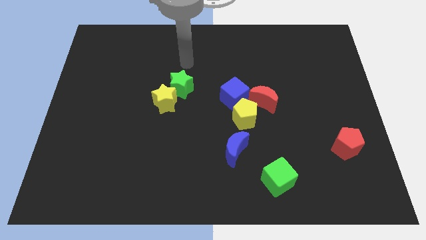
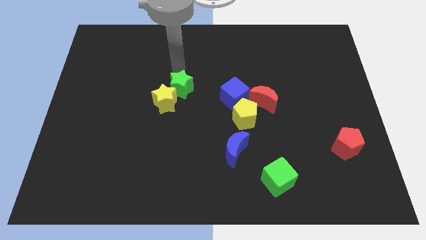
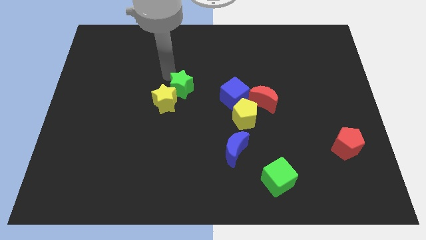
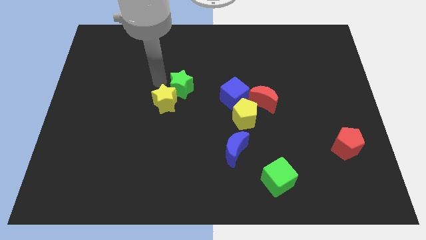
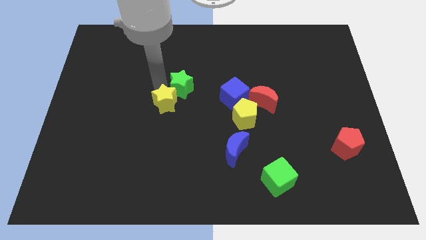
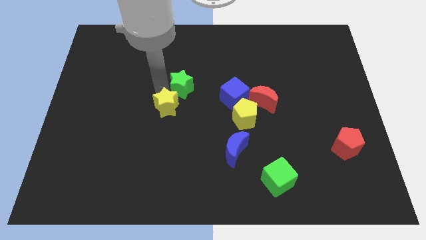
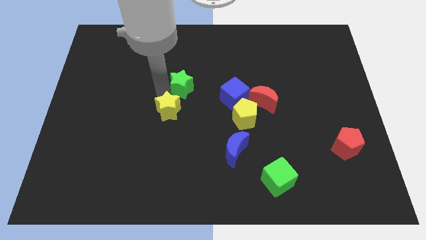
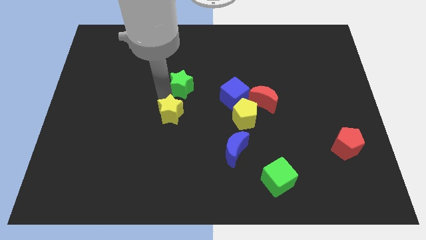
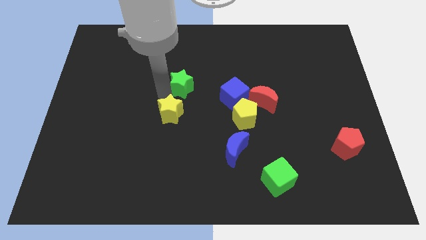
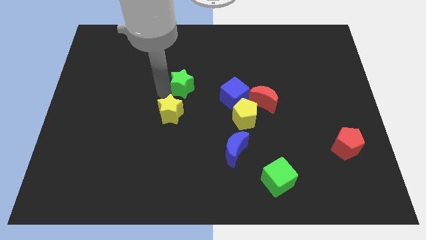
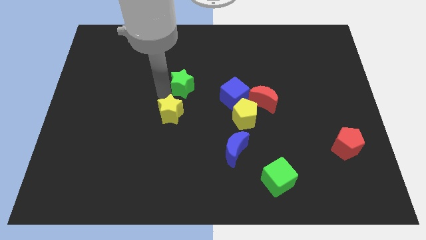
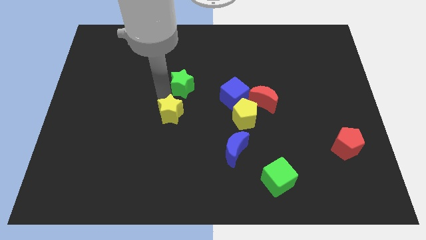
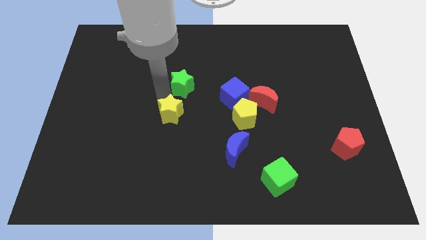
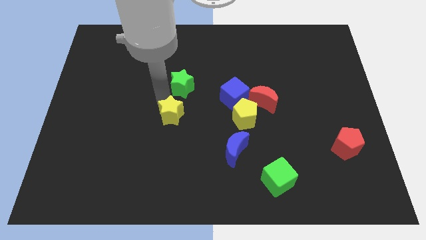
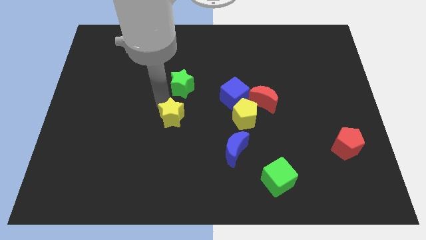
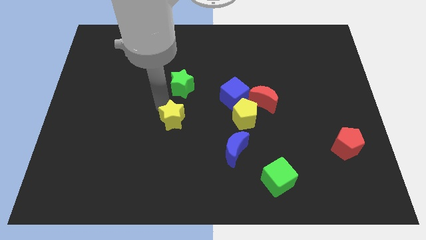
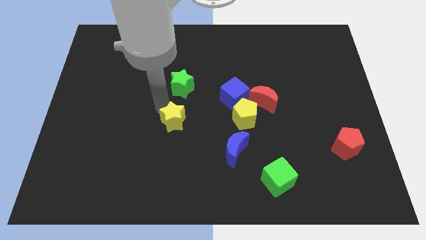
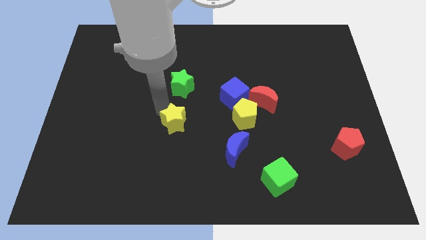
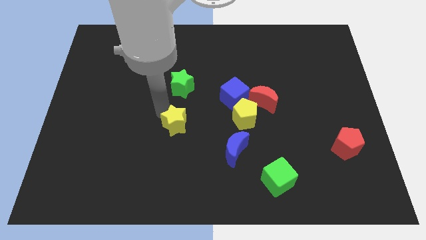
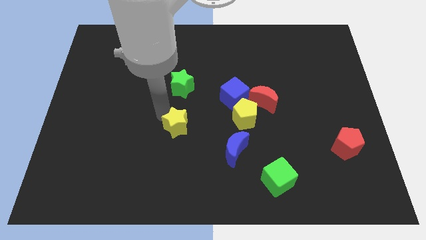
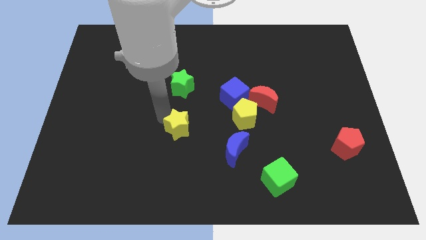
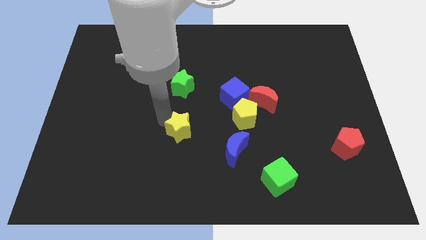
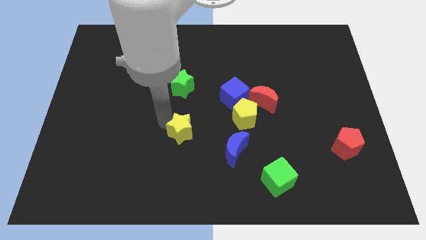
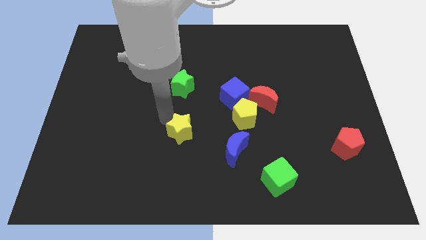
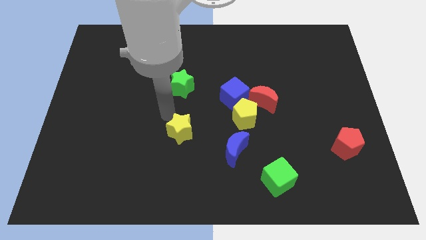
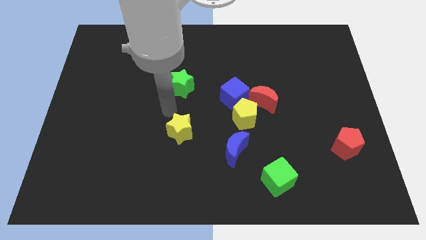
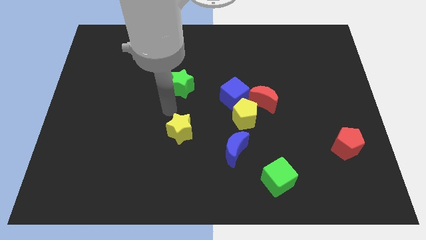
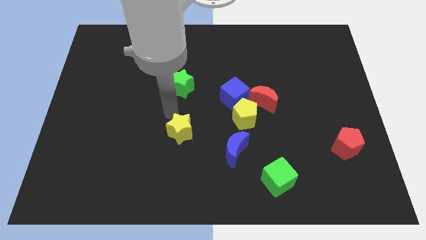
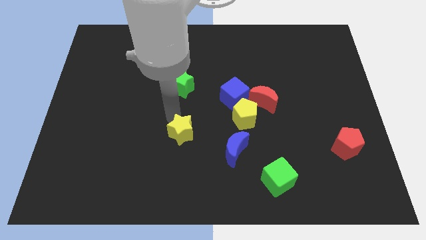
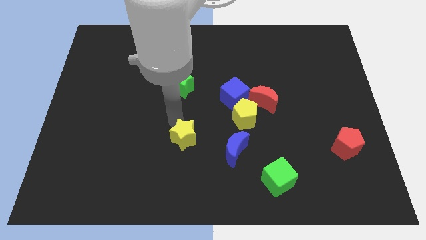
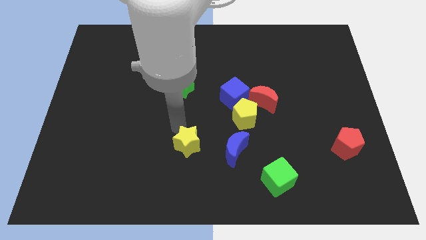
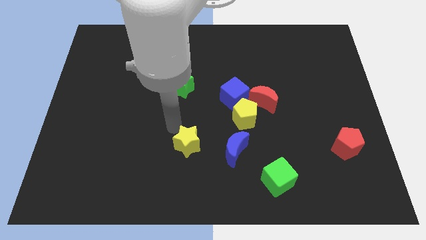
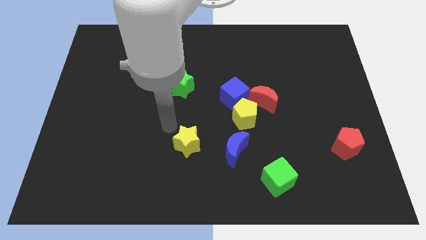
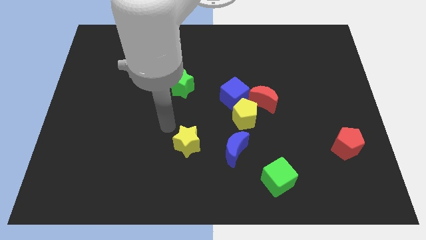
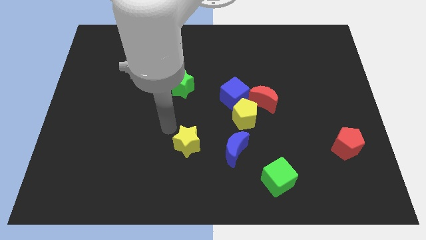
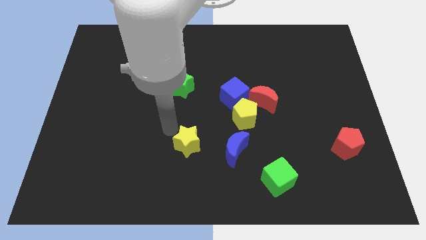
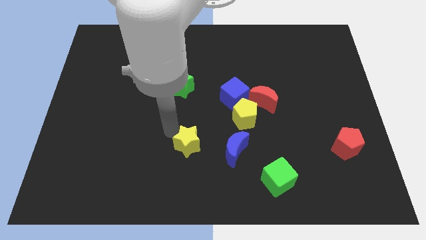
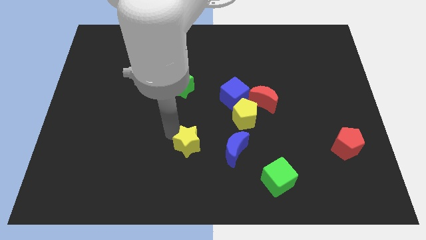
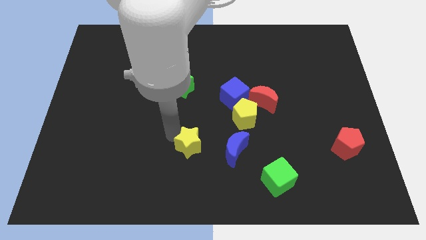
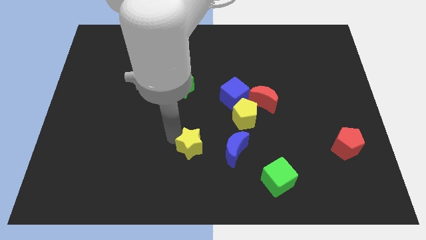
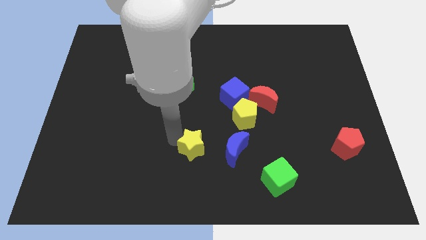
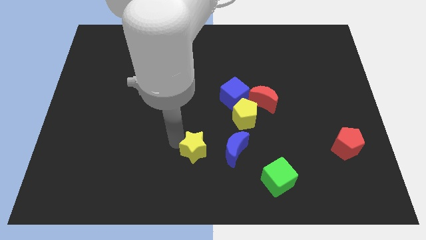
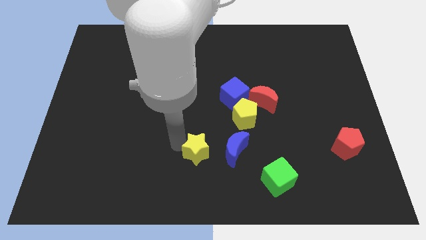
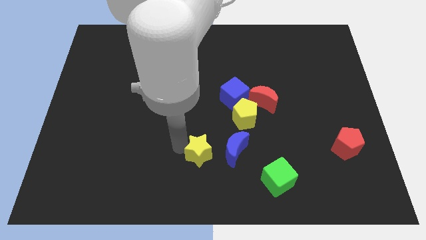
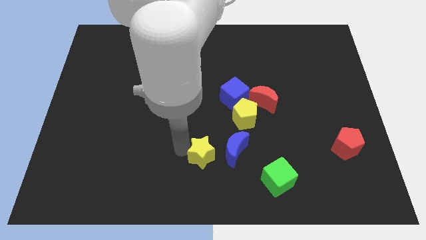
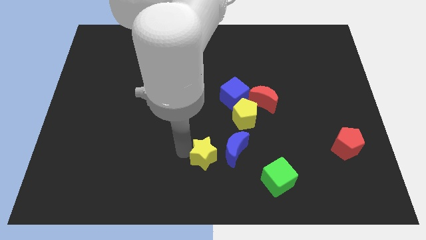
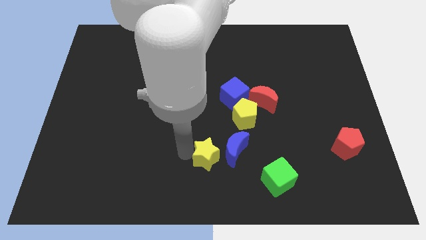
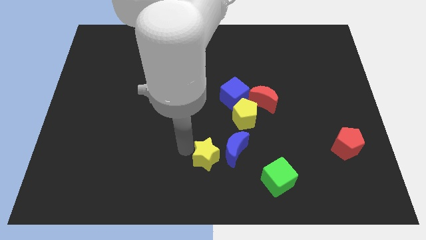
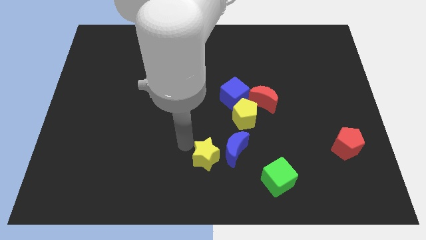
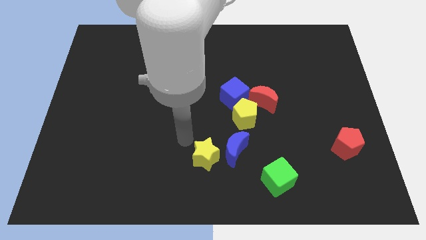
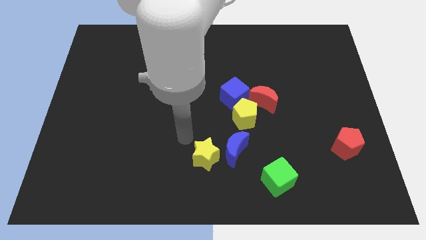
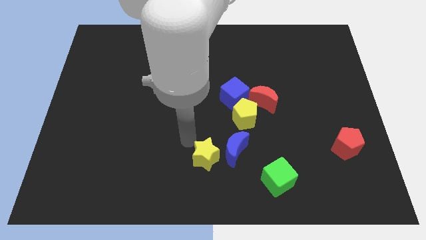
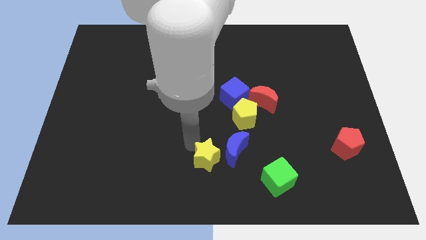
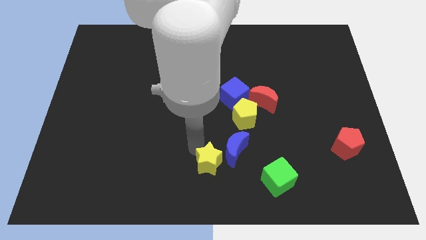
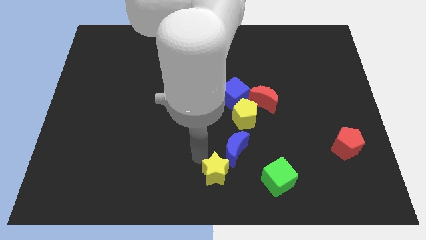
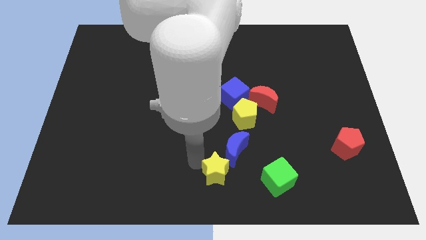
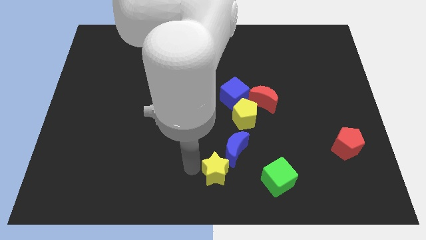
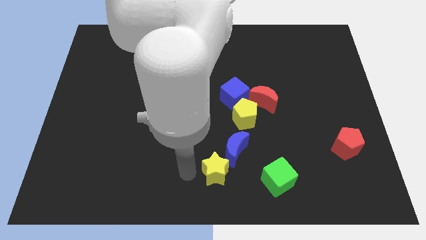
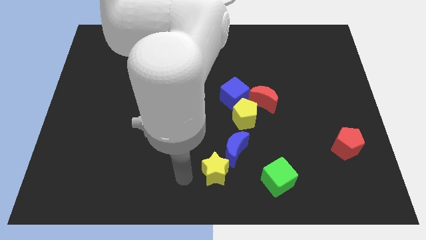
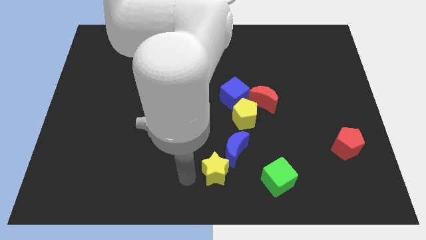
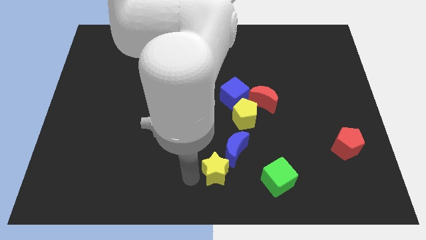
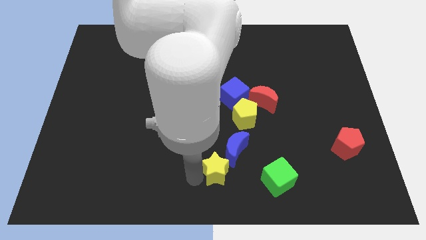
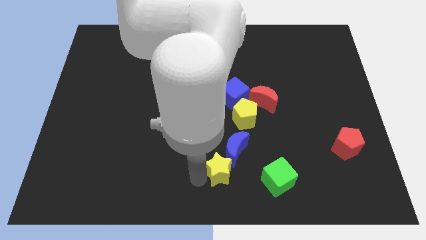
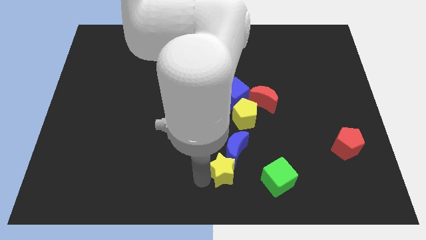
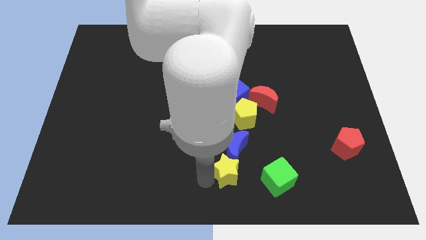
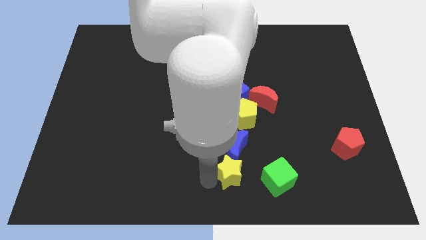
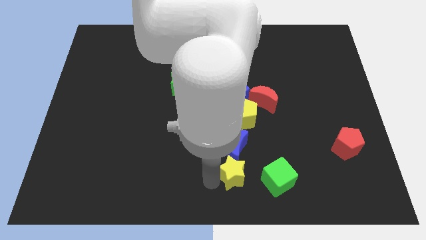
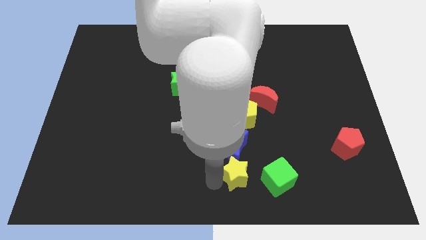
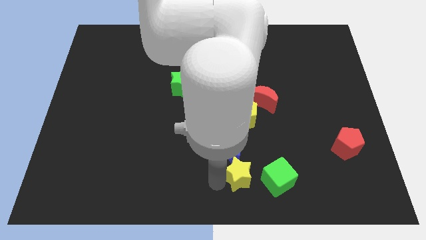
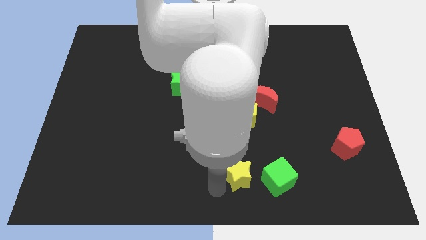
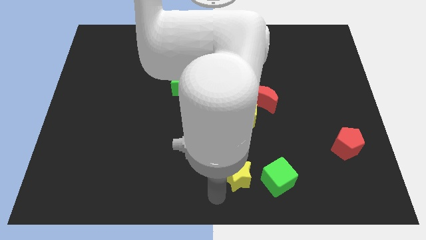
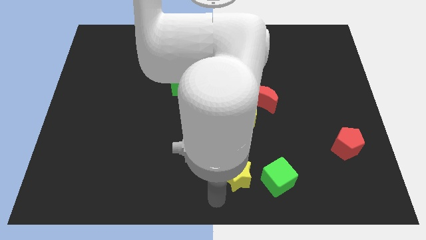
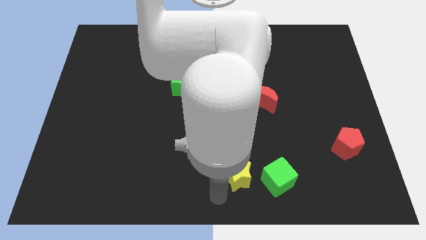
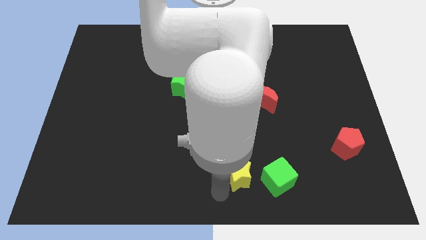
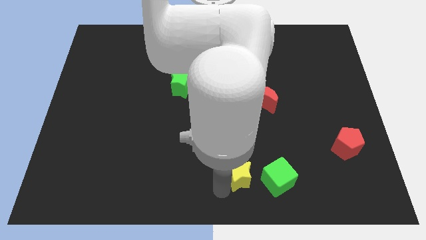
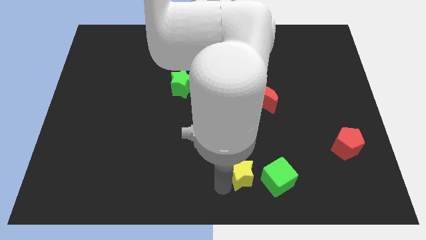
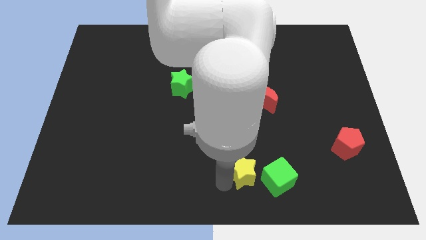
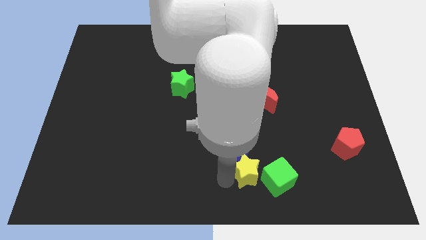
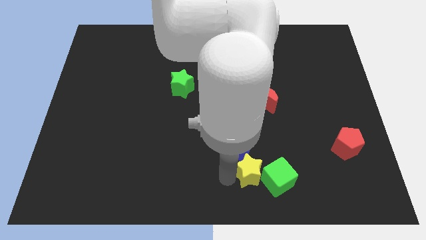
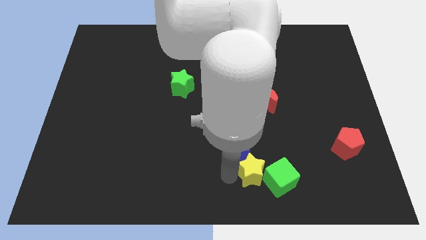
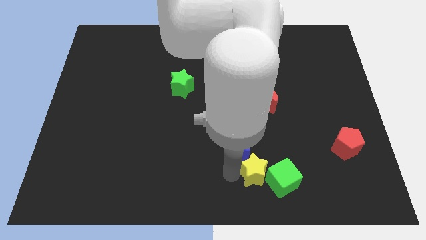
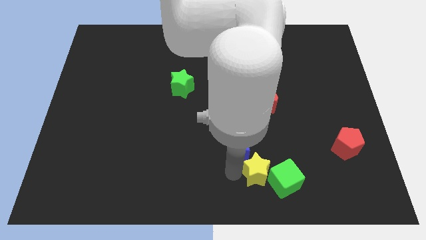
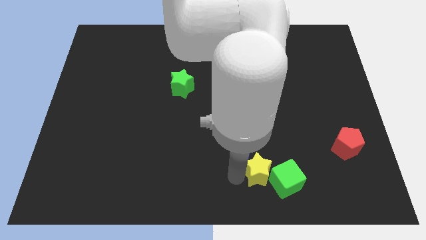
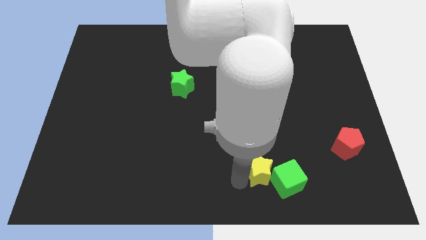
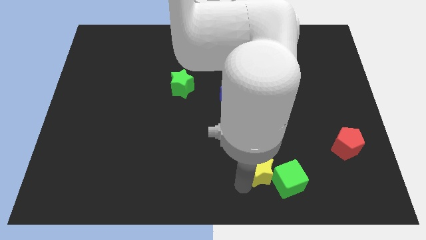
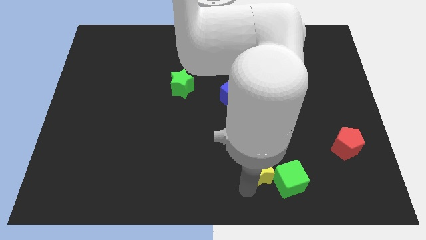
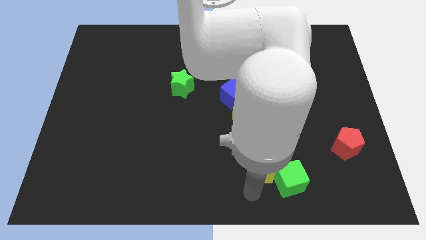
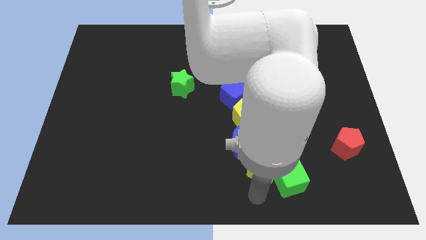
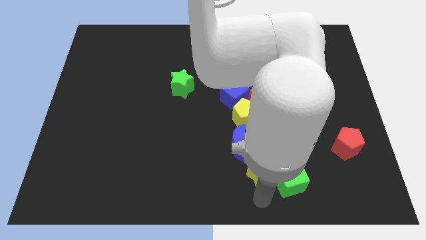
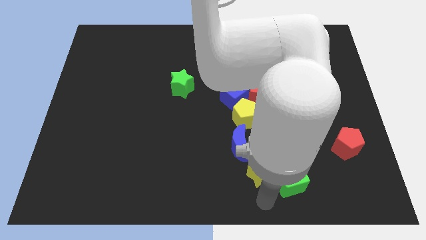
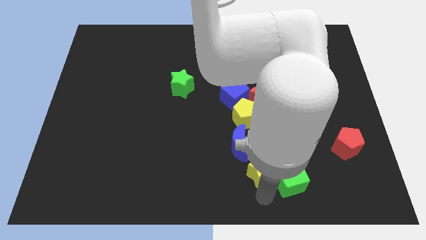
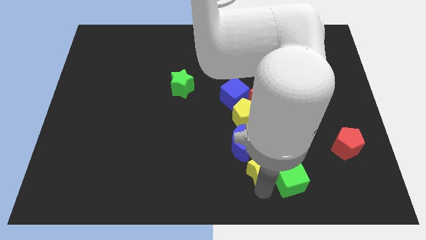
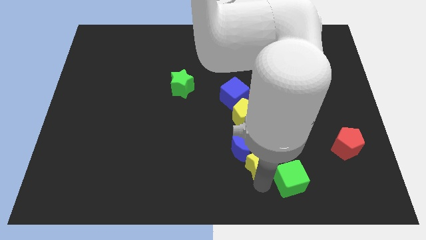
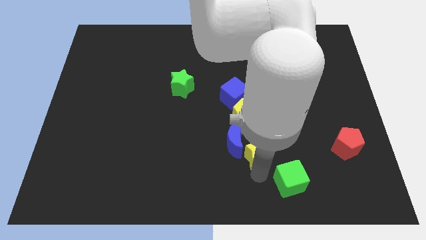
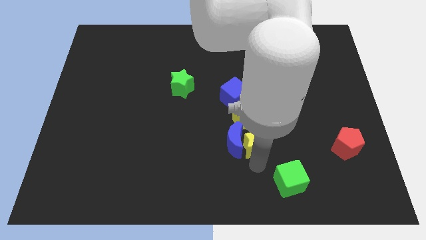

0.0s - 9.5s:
move the yellow star to the top right side of the blue moon
